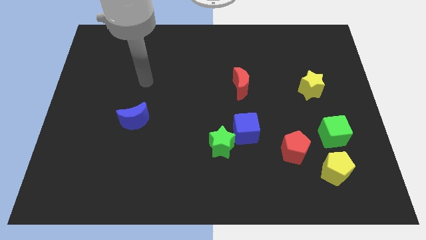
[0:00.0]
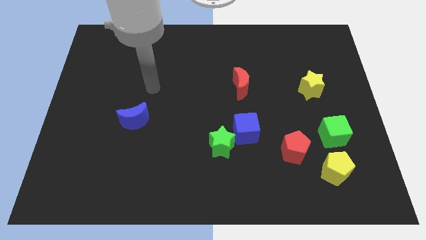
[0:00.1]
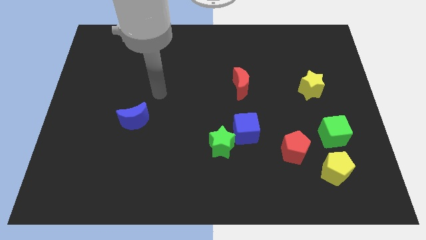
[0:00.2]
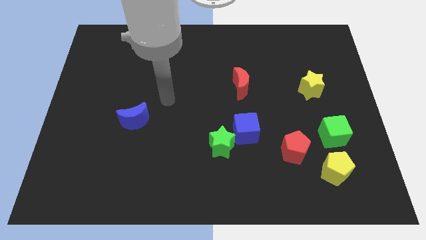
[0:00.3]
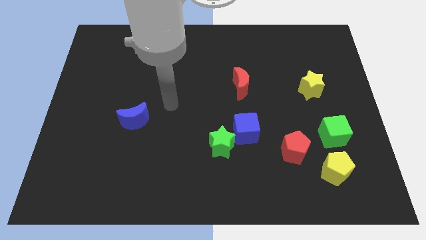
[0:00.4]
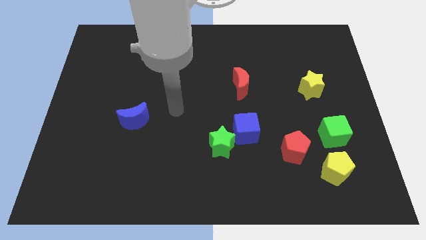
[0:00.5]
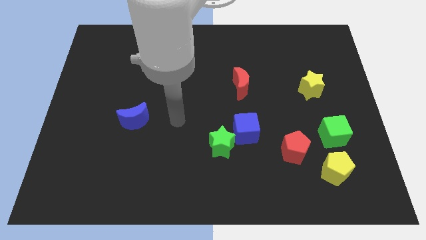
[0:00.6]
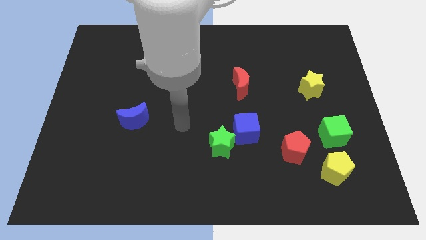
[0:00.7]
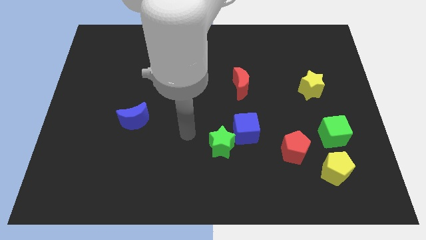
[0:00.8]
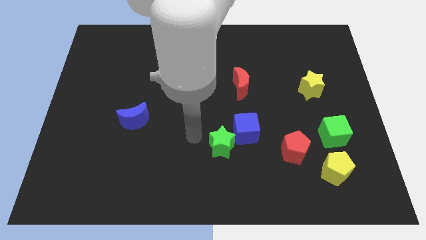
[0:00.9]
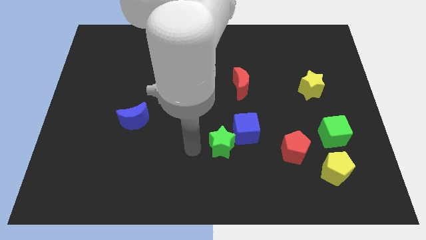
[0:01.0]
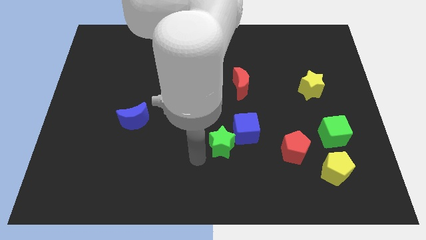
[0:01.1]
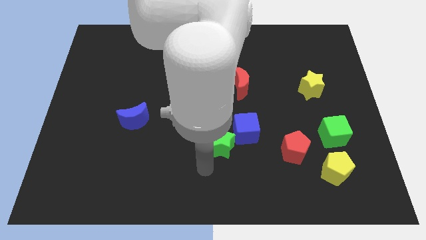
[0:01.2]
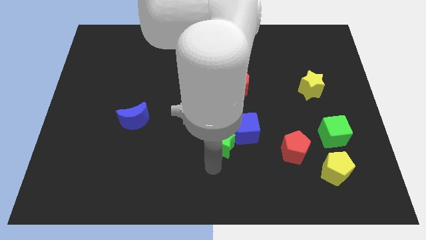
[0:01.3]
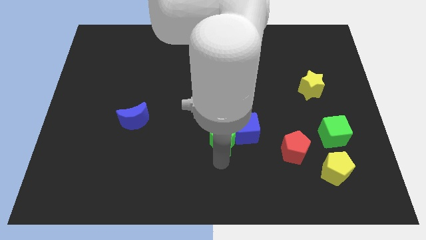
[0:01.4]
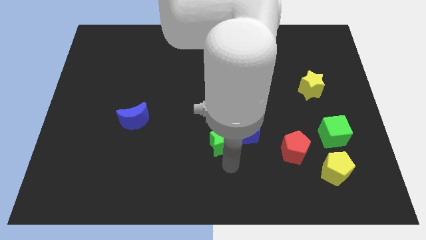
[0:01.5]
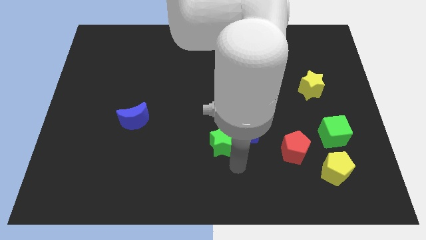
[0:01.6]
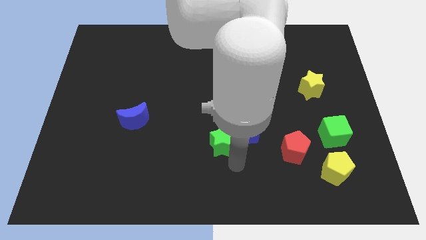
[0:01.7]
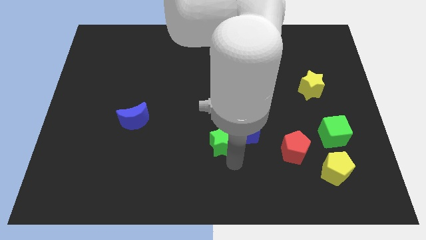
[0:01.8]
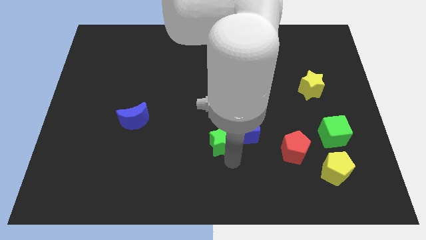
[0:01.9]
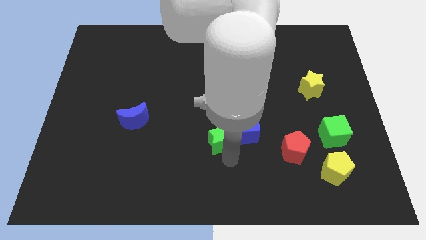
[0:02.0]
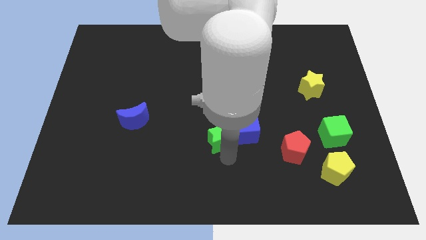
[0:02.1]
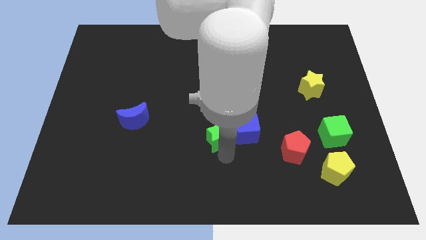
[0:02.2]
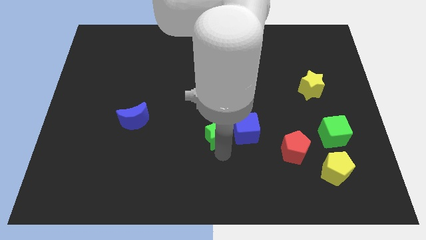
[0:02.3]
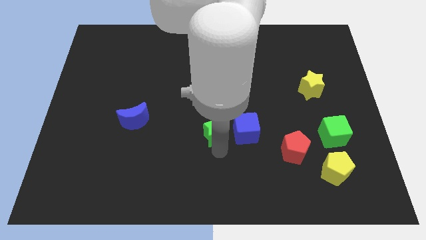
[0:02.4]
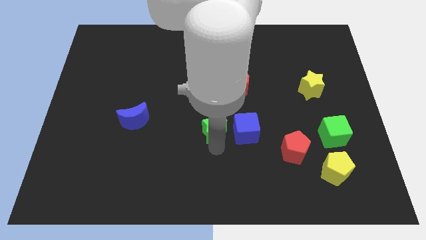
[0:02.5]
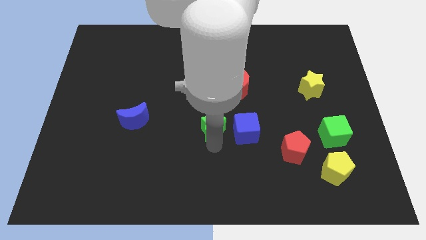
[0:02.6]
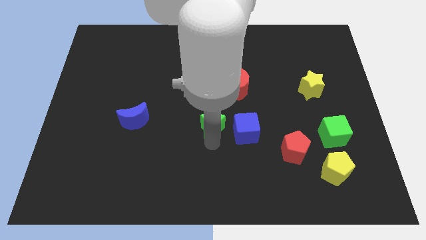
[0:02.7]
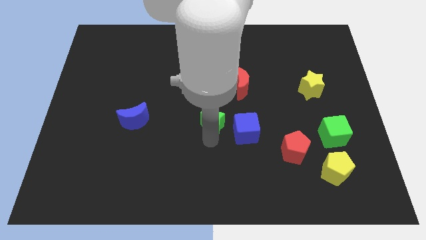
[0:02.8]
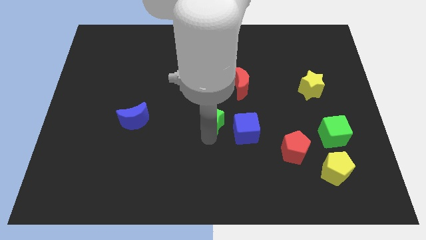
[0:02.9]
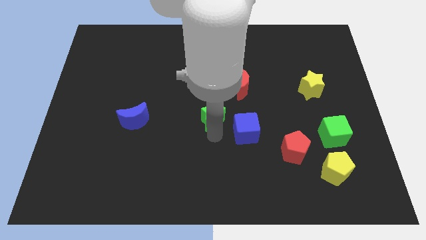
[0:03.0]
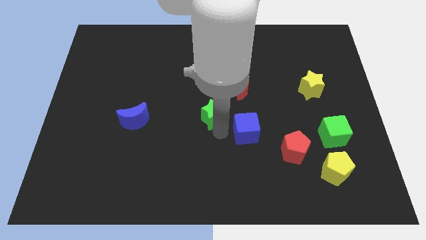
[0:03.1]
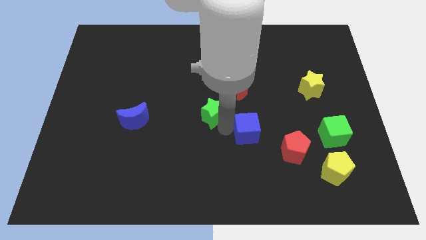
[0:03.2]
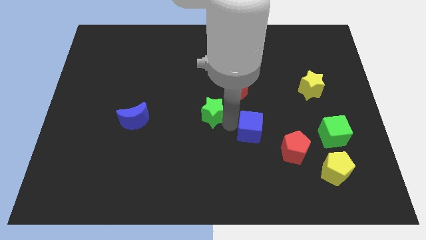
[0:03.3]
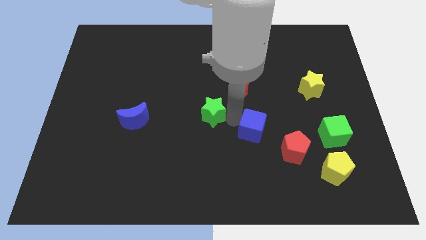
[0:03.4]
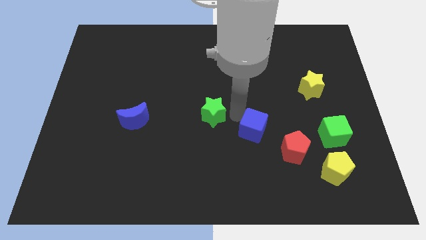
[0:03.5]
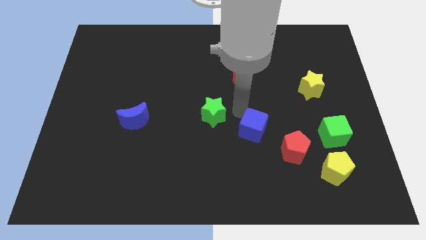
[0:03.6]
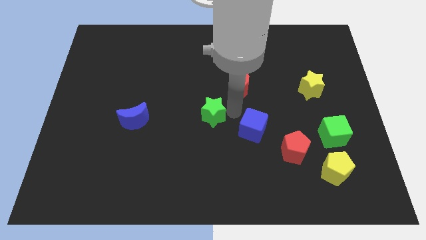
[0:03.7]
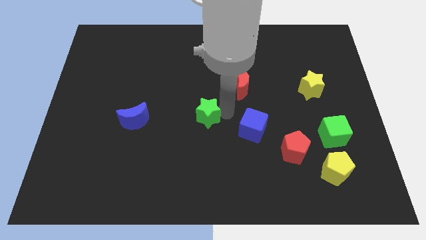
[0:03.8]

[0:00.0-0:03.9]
slide the green star up and to the left diagonally a little bit

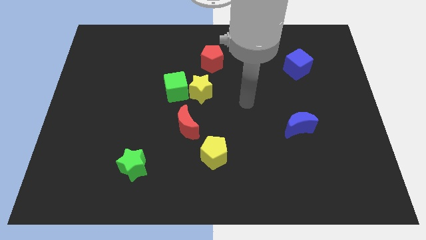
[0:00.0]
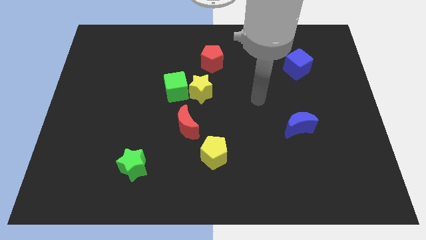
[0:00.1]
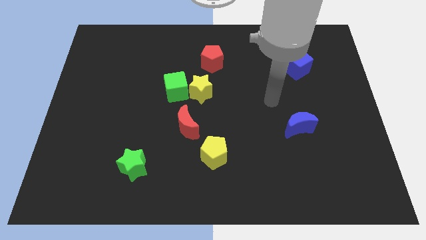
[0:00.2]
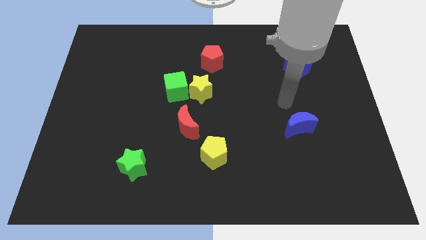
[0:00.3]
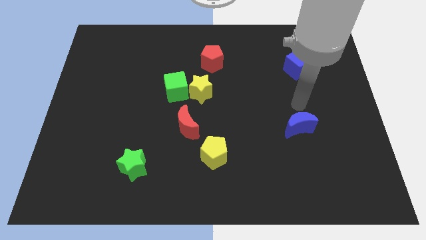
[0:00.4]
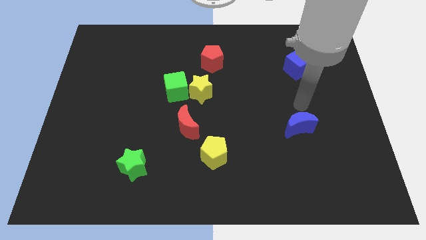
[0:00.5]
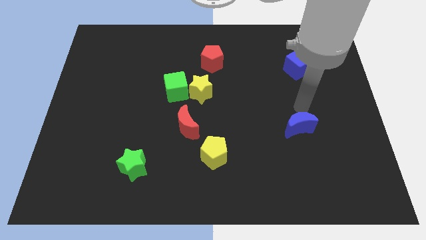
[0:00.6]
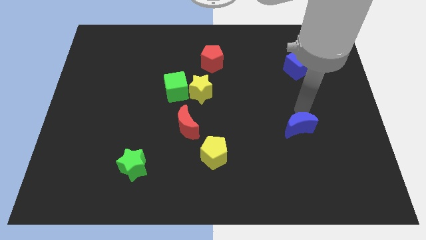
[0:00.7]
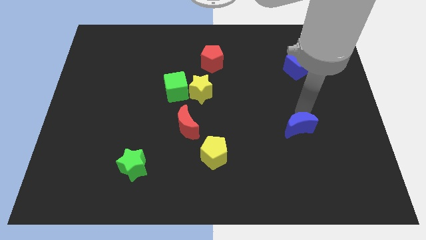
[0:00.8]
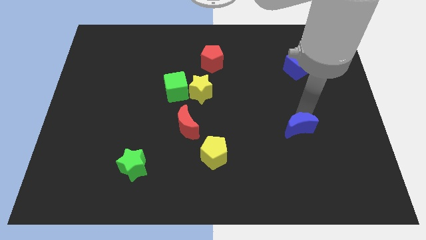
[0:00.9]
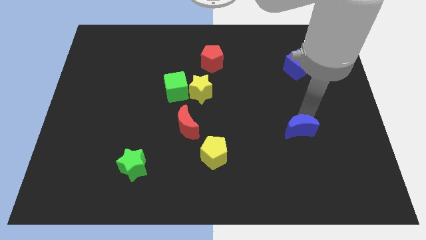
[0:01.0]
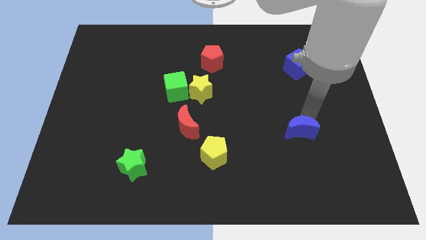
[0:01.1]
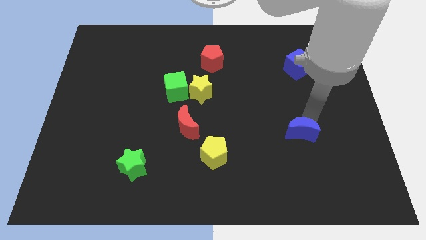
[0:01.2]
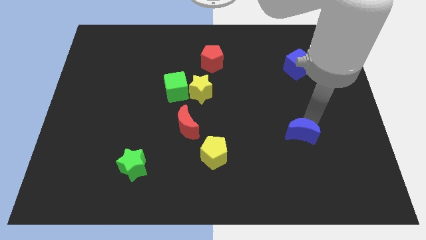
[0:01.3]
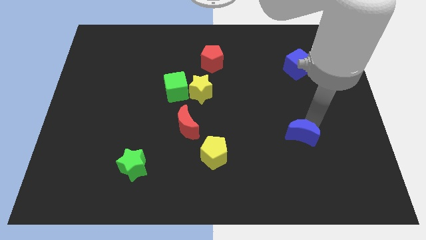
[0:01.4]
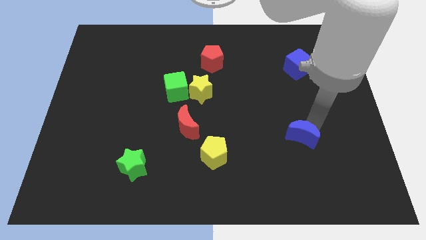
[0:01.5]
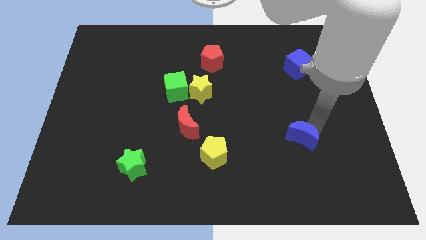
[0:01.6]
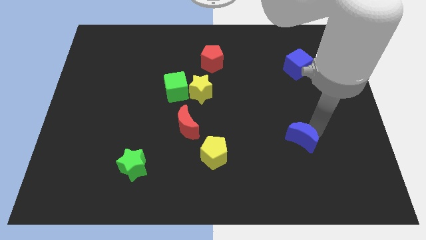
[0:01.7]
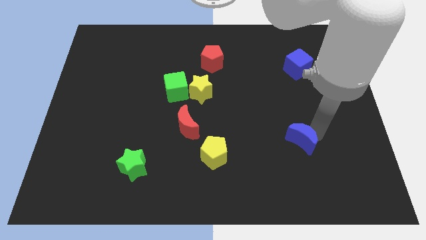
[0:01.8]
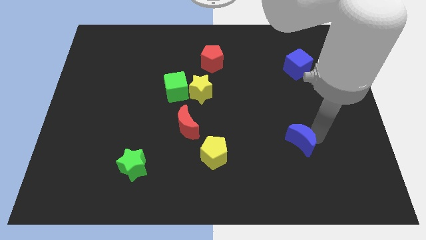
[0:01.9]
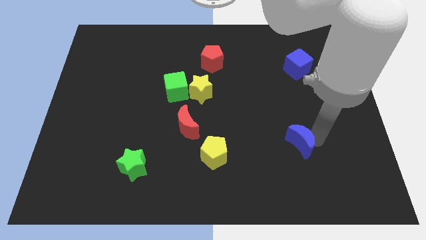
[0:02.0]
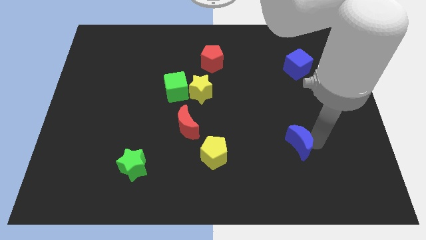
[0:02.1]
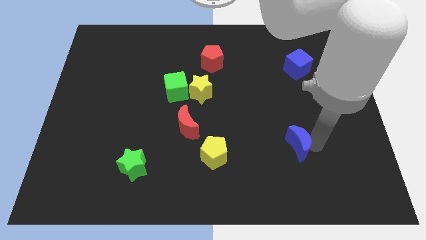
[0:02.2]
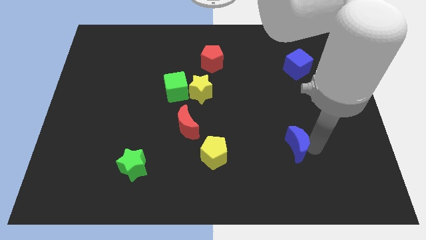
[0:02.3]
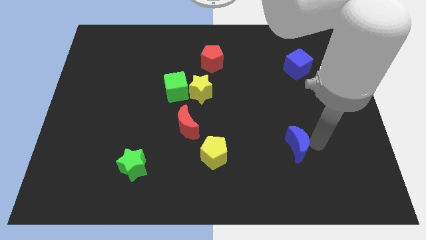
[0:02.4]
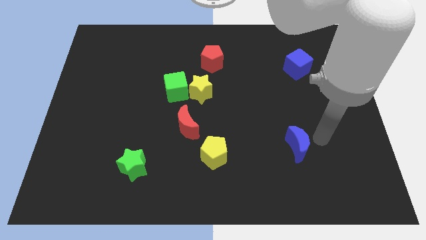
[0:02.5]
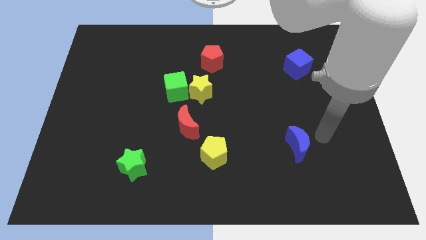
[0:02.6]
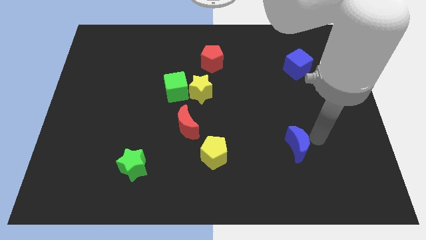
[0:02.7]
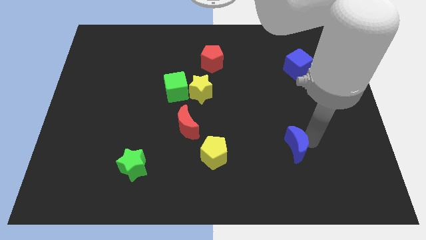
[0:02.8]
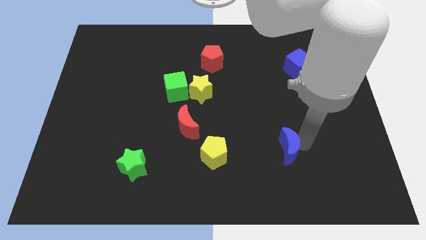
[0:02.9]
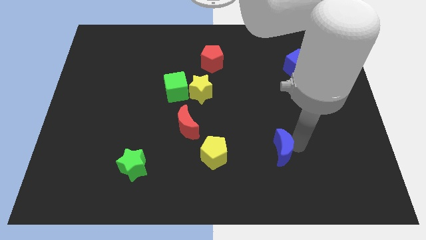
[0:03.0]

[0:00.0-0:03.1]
push the blue moon a little bit down and then left

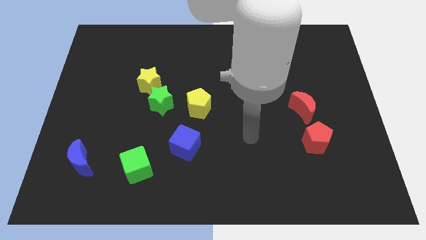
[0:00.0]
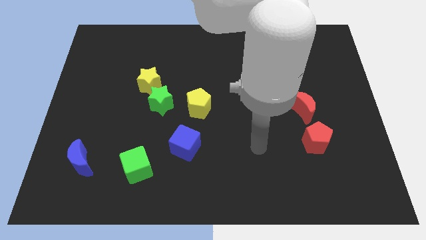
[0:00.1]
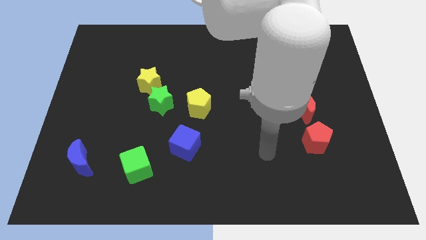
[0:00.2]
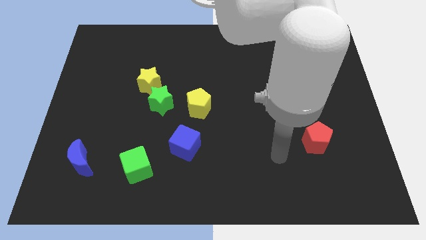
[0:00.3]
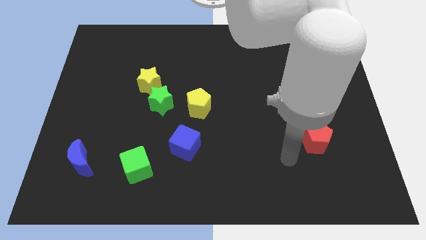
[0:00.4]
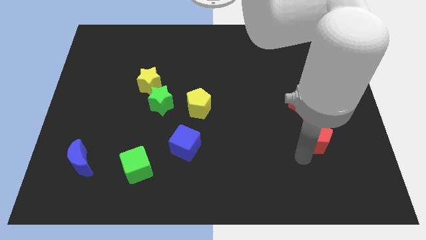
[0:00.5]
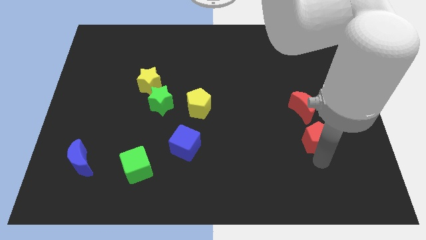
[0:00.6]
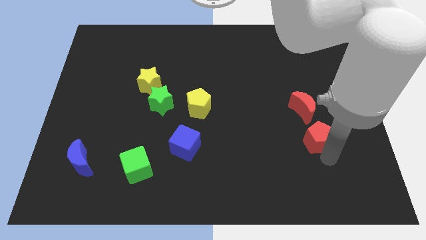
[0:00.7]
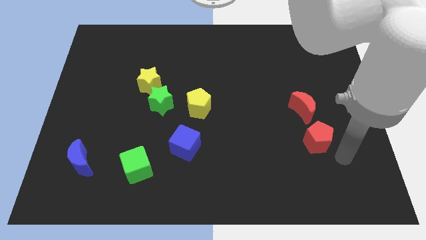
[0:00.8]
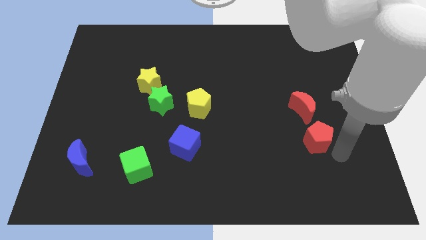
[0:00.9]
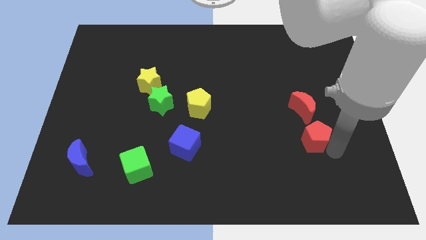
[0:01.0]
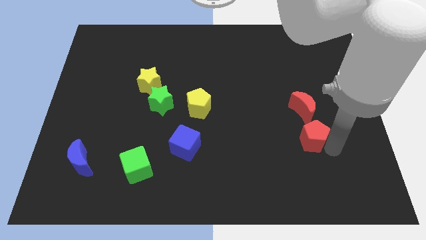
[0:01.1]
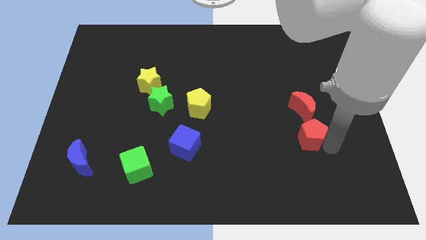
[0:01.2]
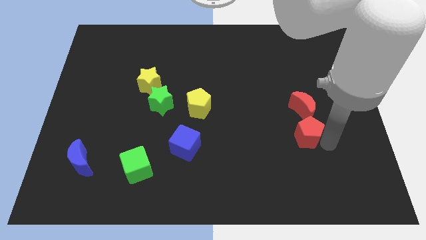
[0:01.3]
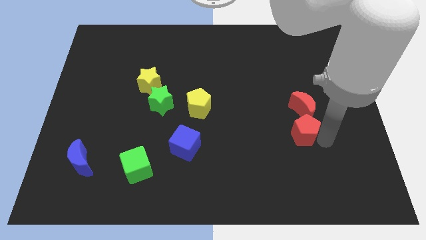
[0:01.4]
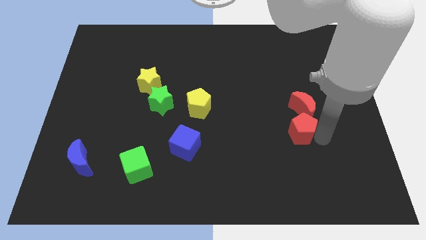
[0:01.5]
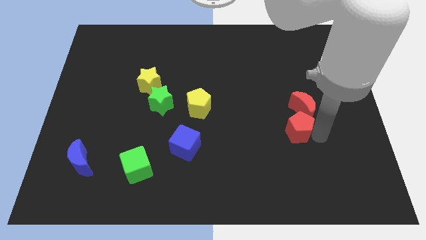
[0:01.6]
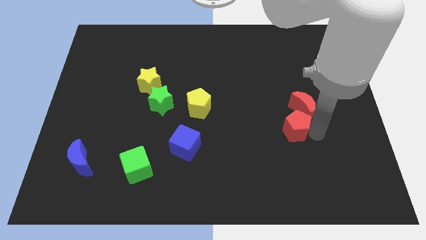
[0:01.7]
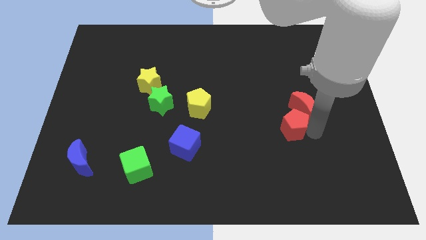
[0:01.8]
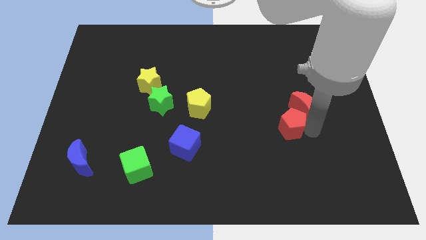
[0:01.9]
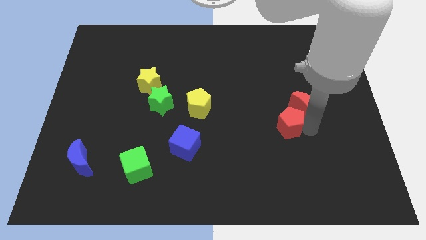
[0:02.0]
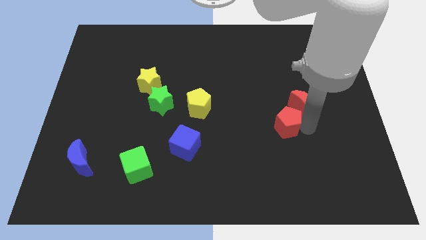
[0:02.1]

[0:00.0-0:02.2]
slightly move the red pentagon up and to the left diagonally
